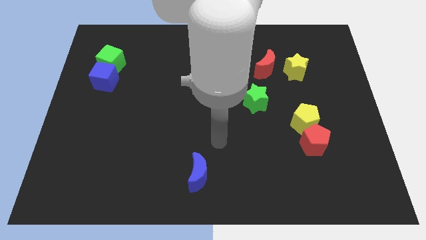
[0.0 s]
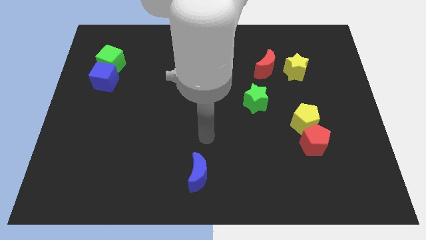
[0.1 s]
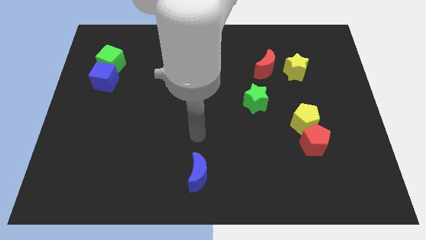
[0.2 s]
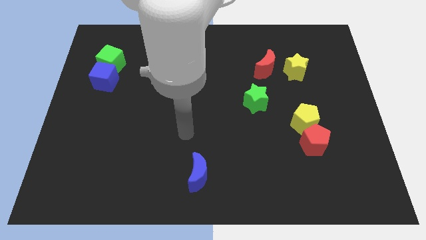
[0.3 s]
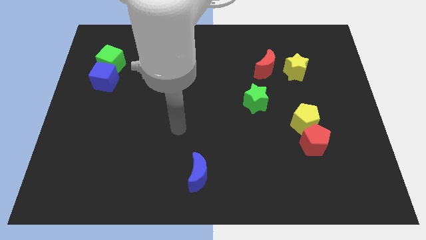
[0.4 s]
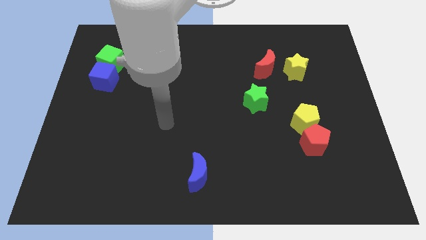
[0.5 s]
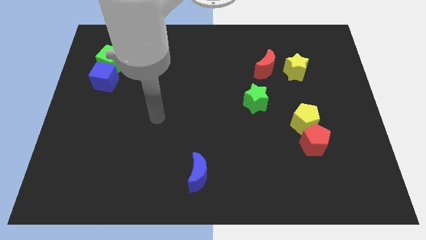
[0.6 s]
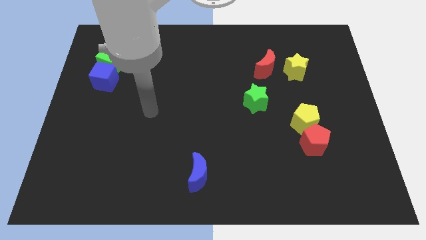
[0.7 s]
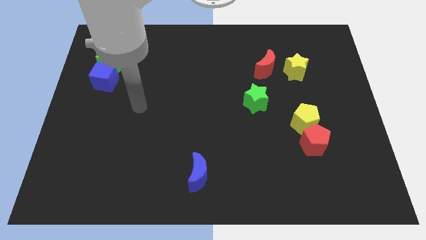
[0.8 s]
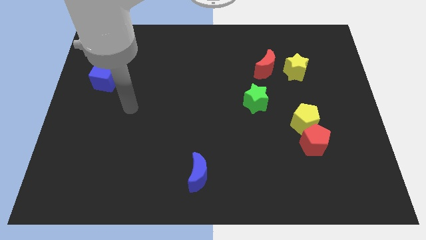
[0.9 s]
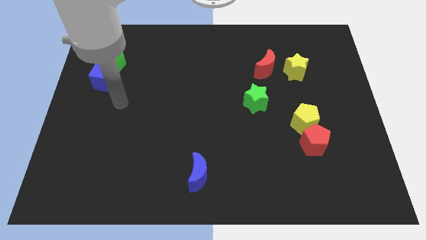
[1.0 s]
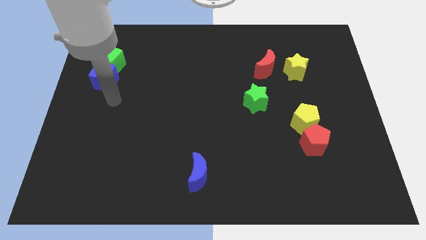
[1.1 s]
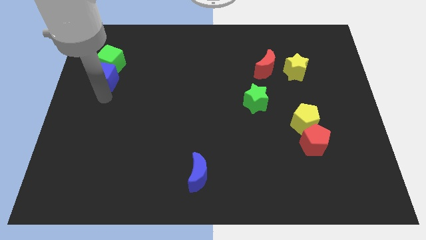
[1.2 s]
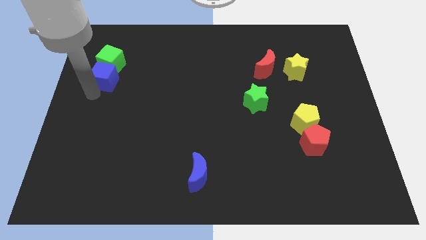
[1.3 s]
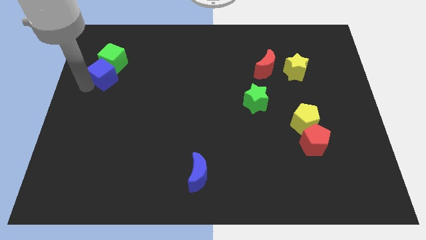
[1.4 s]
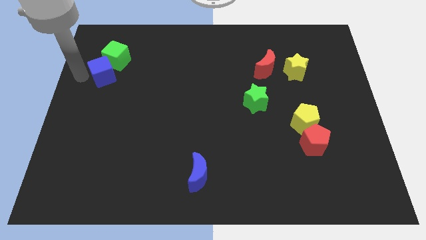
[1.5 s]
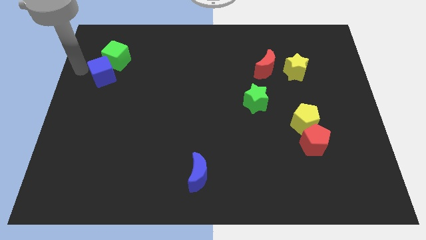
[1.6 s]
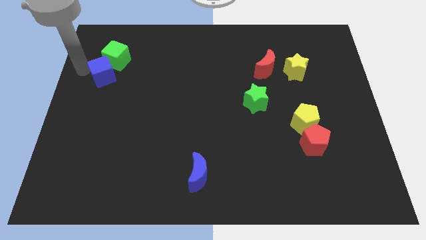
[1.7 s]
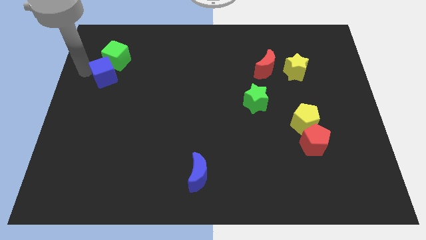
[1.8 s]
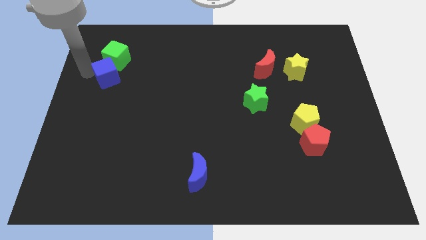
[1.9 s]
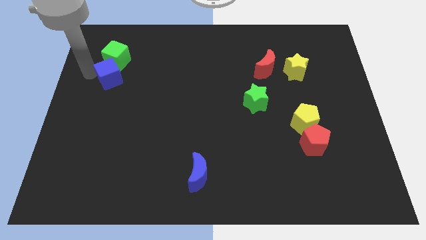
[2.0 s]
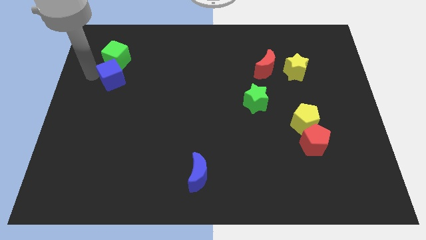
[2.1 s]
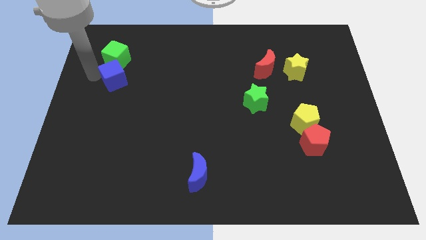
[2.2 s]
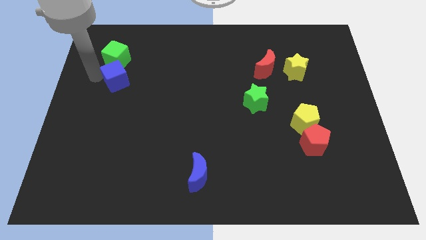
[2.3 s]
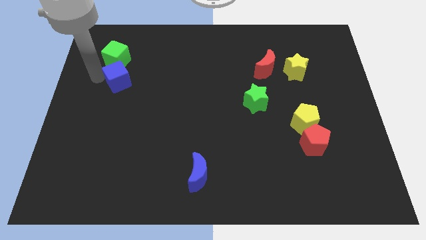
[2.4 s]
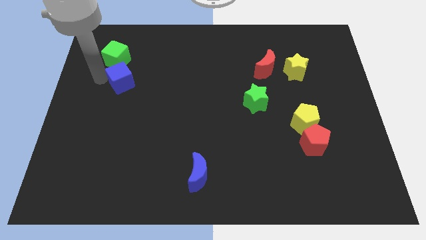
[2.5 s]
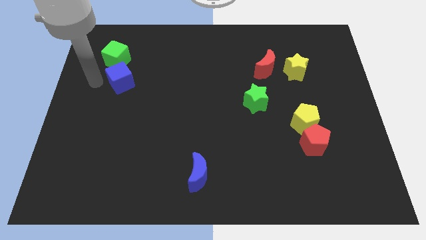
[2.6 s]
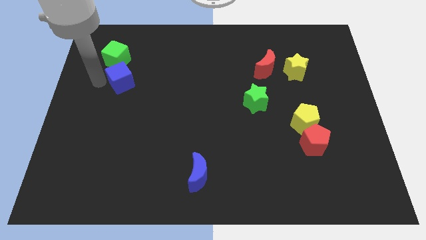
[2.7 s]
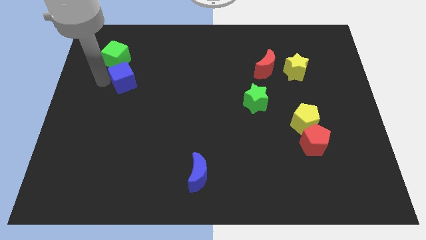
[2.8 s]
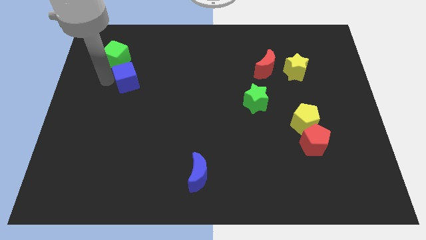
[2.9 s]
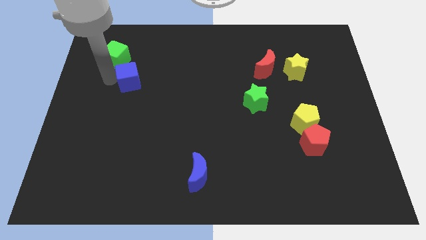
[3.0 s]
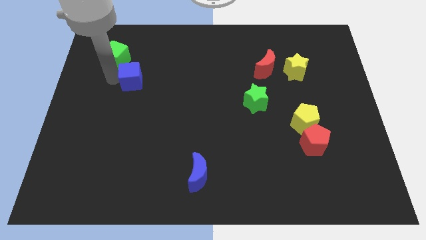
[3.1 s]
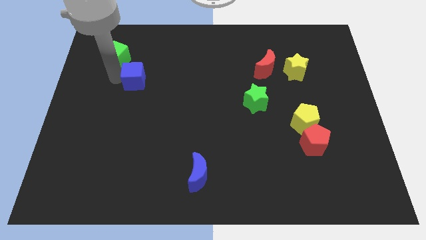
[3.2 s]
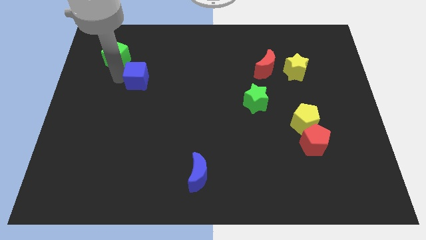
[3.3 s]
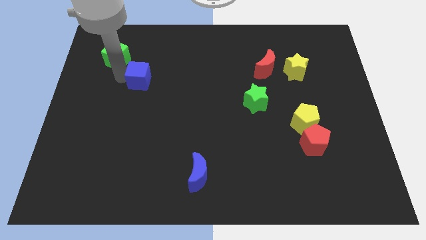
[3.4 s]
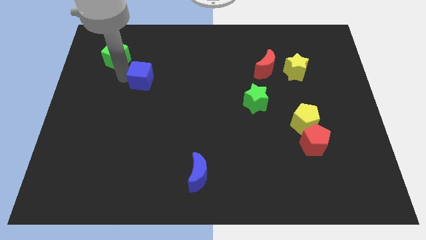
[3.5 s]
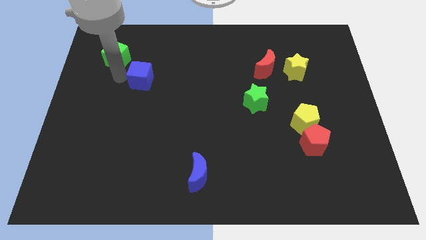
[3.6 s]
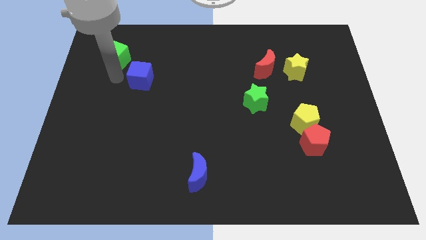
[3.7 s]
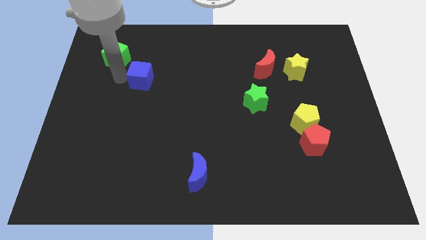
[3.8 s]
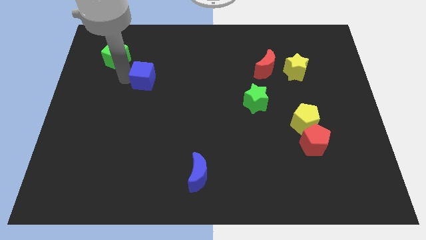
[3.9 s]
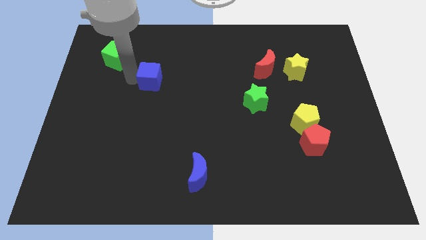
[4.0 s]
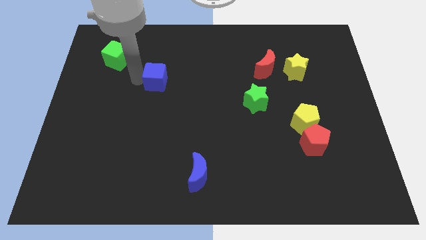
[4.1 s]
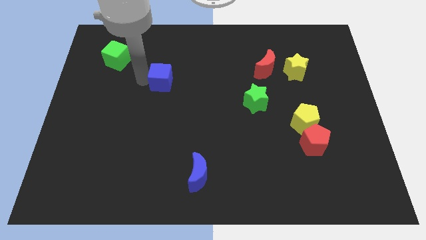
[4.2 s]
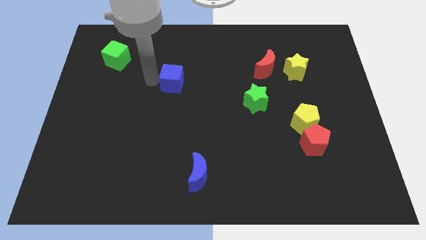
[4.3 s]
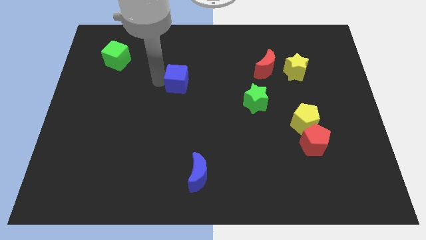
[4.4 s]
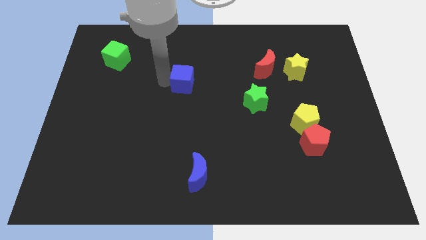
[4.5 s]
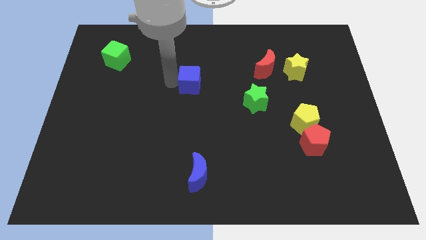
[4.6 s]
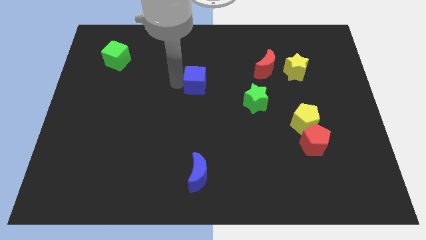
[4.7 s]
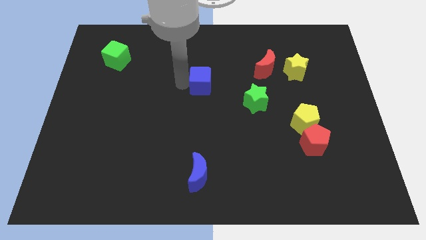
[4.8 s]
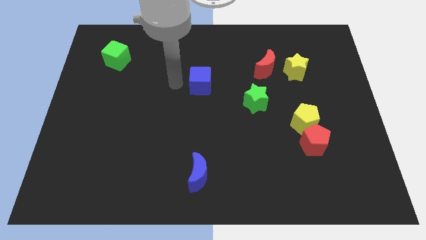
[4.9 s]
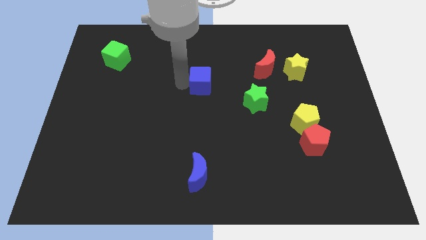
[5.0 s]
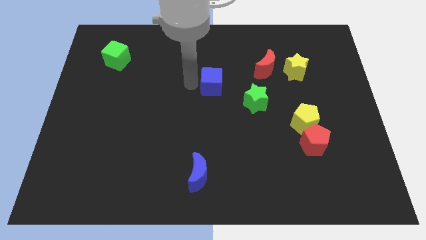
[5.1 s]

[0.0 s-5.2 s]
slide the blue cube to the top left of the green star

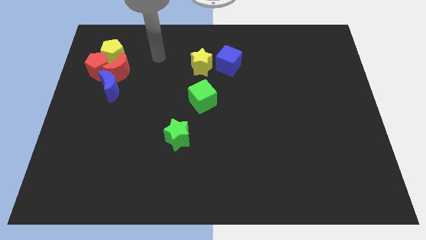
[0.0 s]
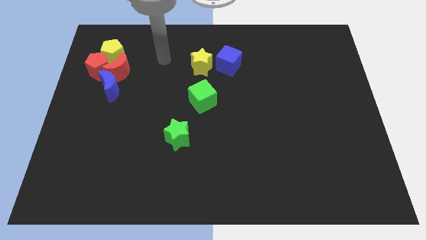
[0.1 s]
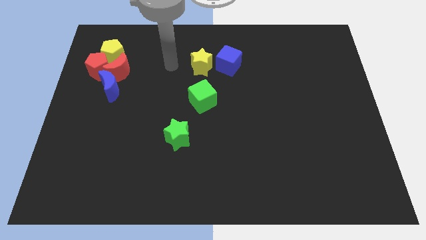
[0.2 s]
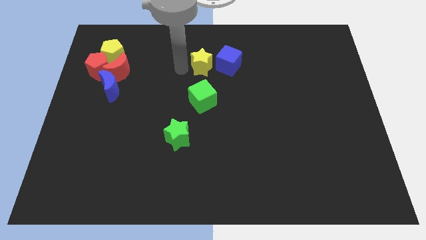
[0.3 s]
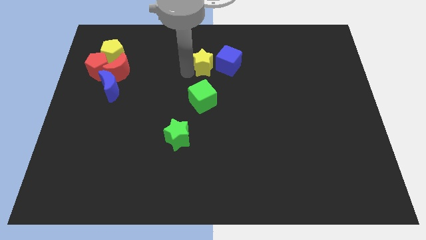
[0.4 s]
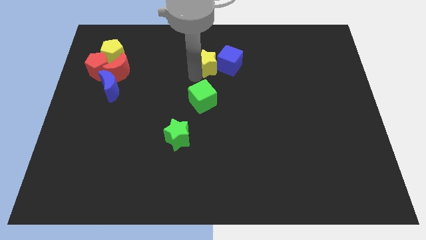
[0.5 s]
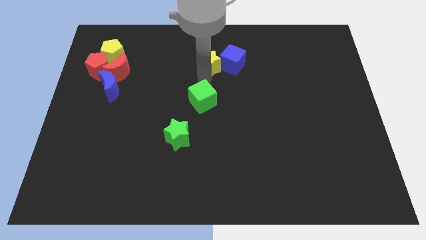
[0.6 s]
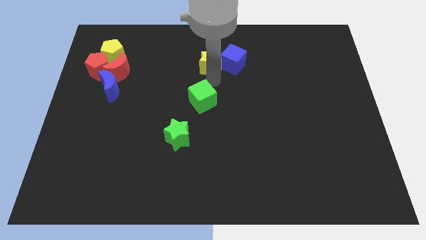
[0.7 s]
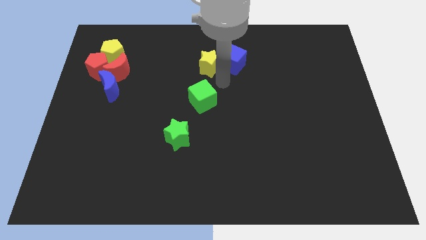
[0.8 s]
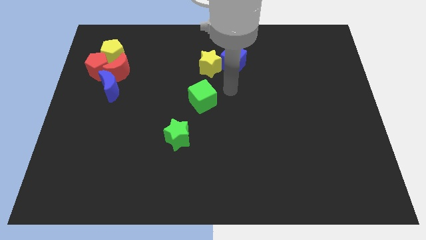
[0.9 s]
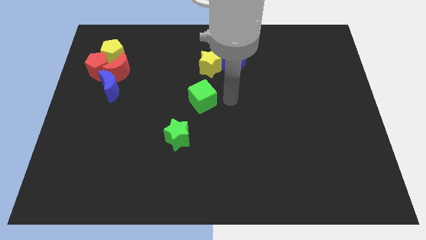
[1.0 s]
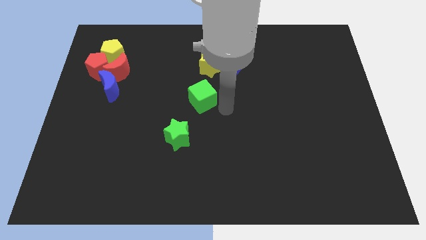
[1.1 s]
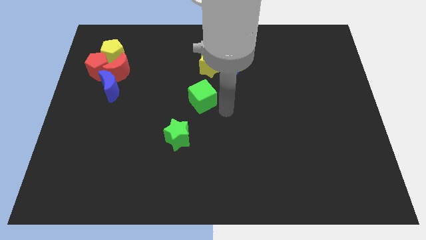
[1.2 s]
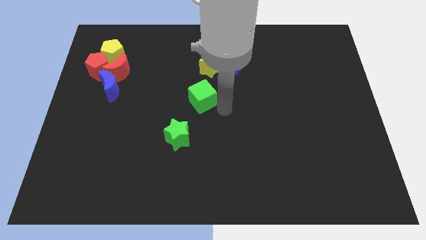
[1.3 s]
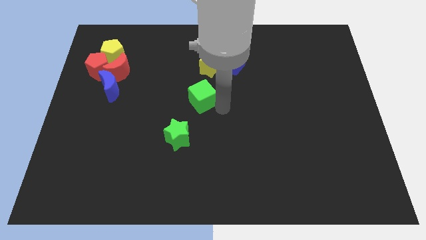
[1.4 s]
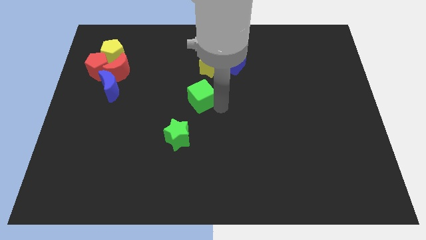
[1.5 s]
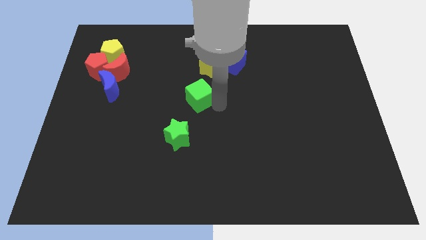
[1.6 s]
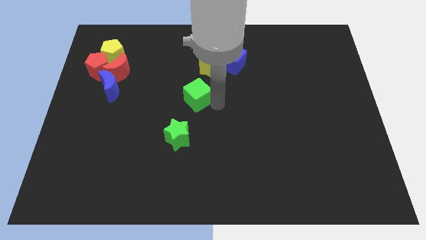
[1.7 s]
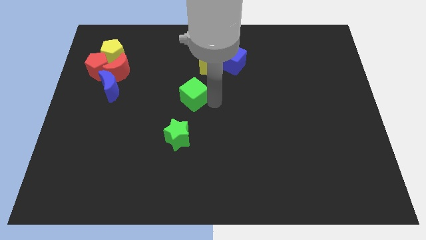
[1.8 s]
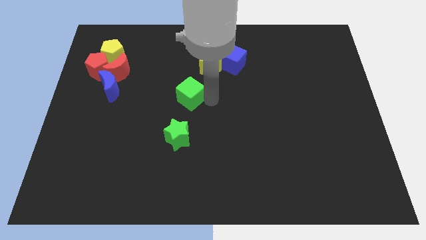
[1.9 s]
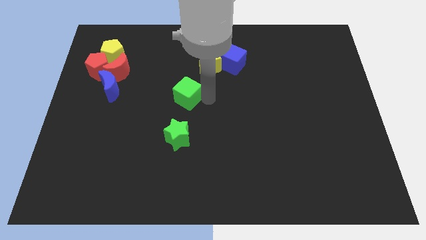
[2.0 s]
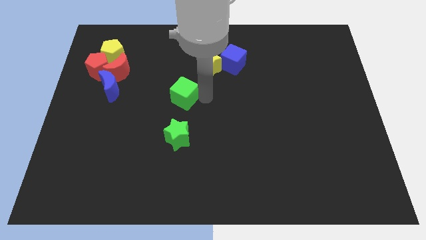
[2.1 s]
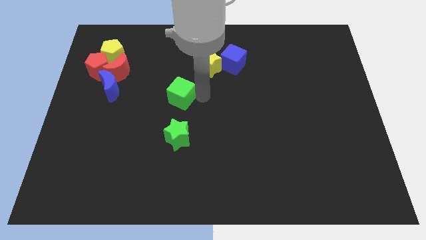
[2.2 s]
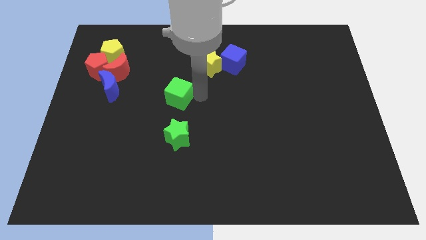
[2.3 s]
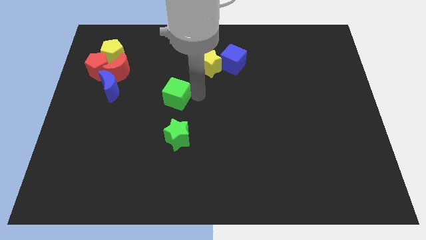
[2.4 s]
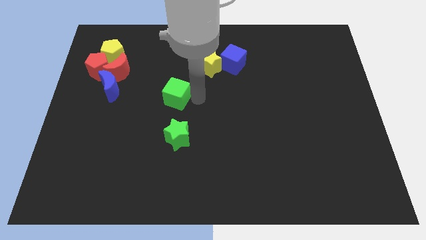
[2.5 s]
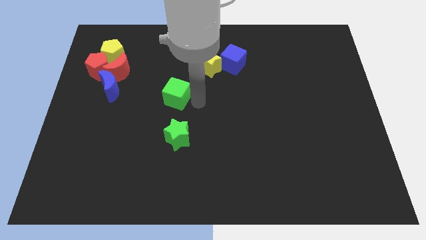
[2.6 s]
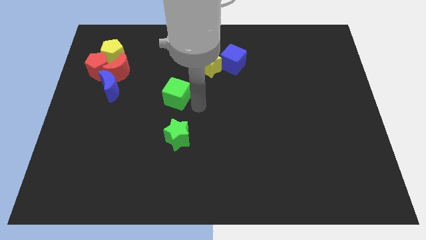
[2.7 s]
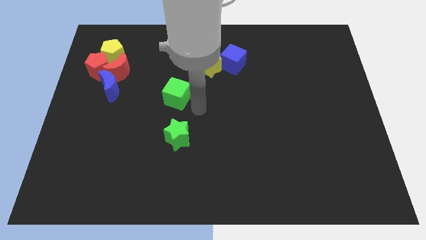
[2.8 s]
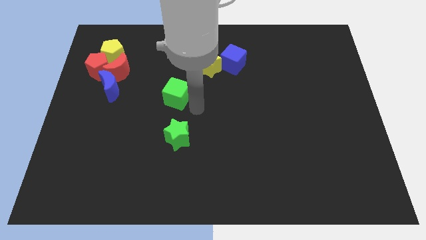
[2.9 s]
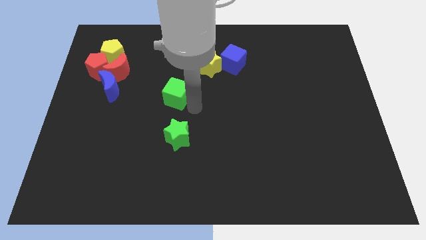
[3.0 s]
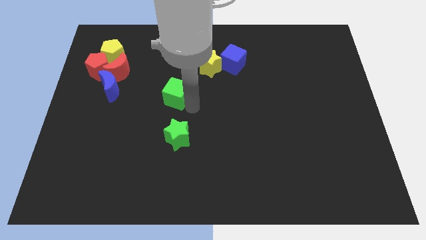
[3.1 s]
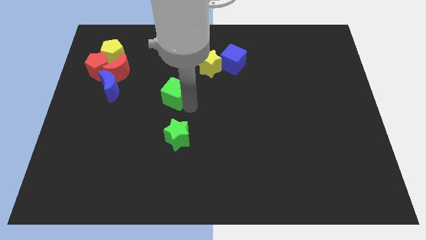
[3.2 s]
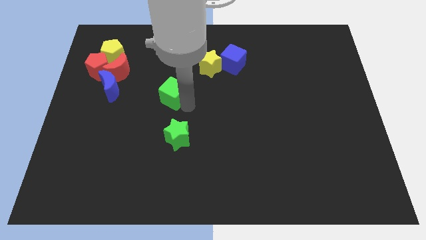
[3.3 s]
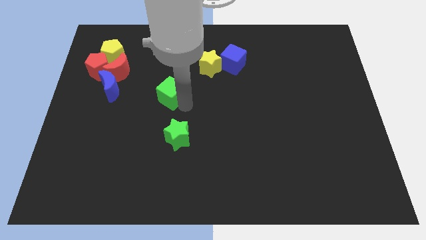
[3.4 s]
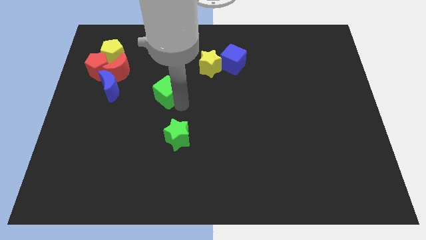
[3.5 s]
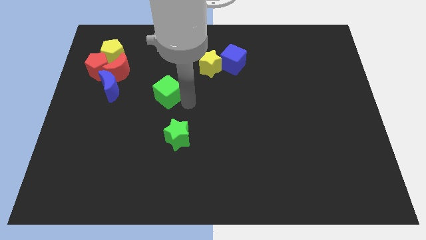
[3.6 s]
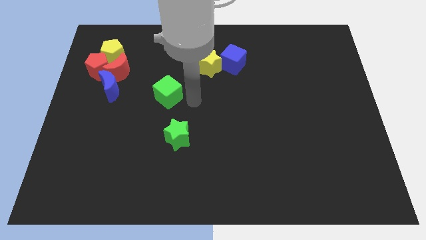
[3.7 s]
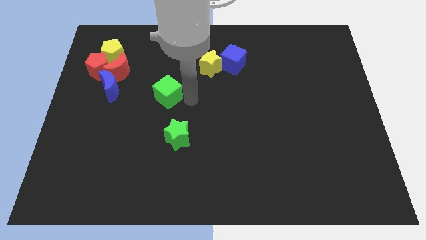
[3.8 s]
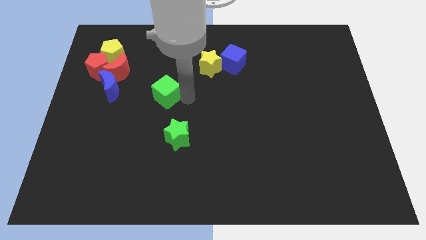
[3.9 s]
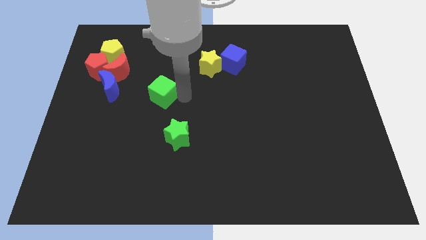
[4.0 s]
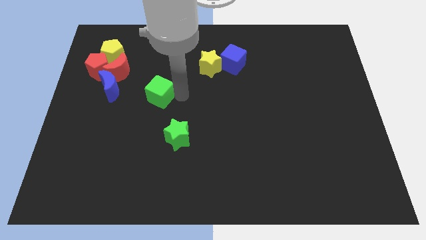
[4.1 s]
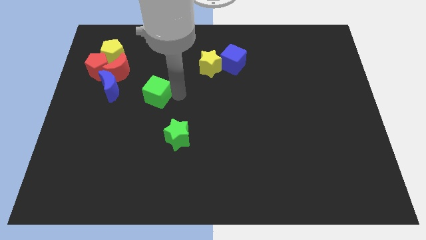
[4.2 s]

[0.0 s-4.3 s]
push the green cube diagonally down and to the right of the red moon
